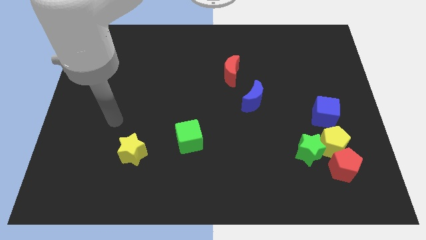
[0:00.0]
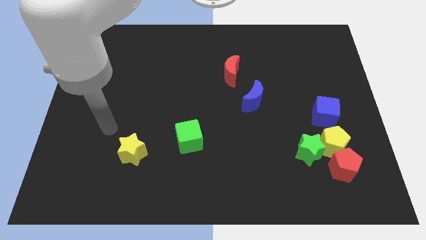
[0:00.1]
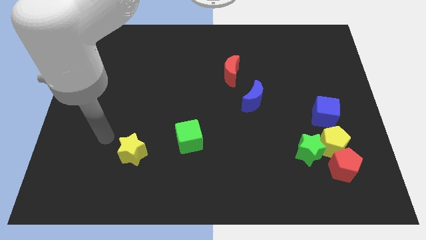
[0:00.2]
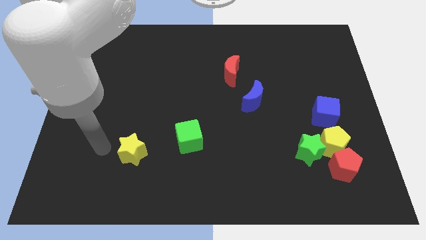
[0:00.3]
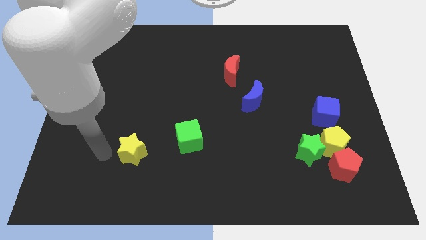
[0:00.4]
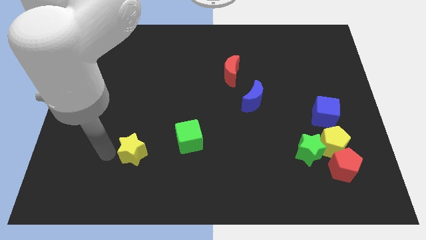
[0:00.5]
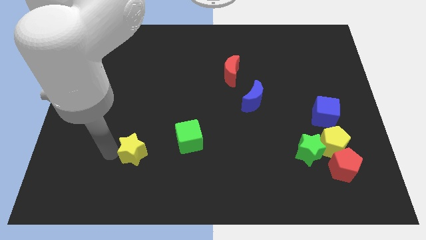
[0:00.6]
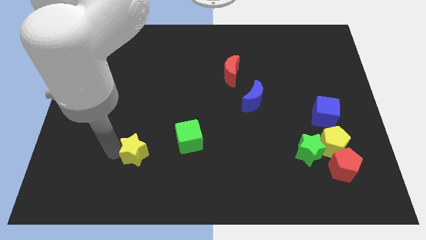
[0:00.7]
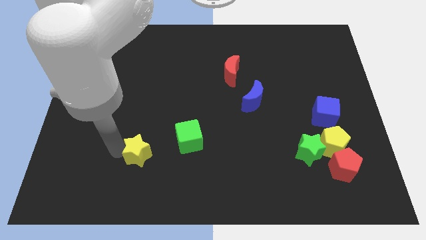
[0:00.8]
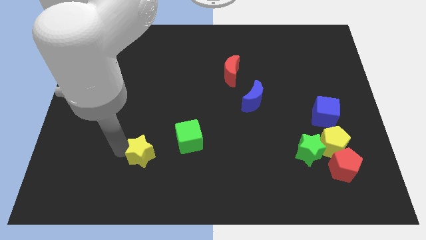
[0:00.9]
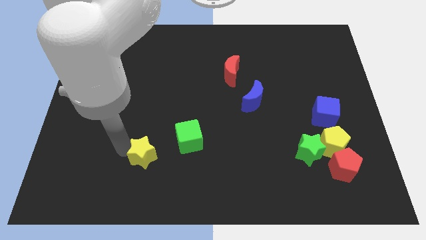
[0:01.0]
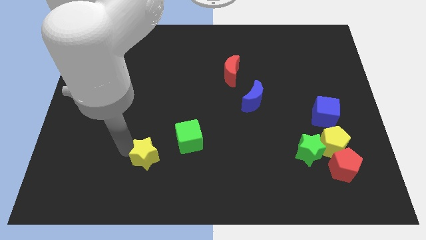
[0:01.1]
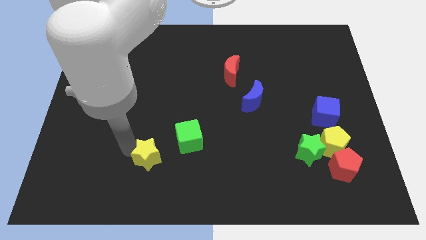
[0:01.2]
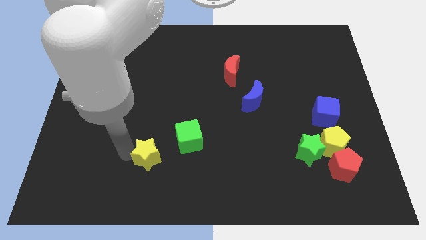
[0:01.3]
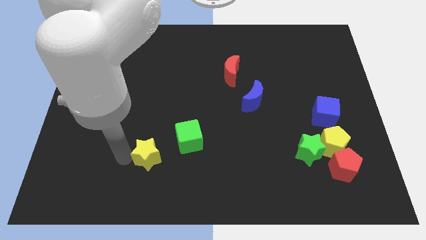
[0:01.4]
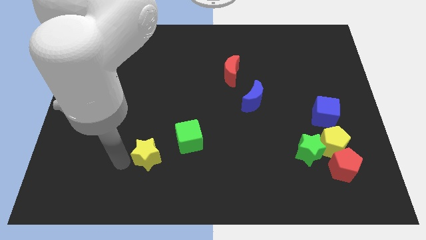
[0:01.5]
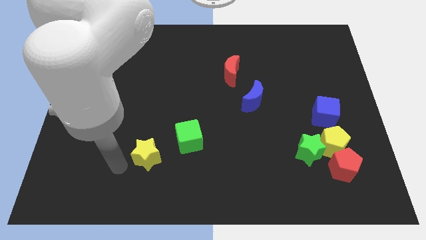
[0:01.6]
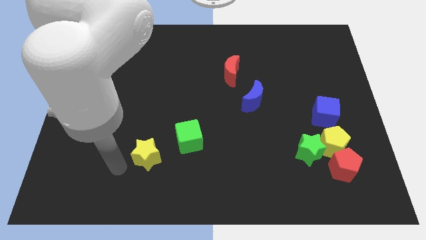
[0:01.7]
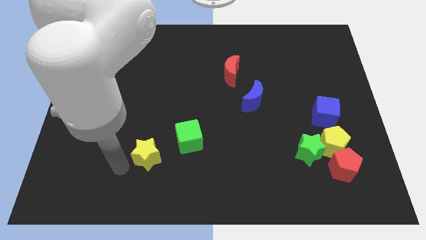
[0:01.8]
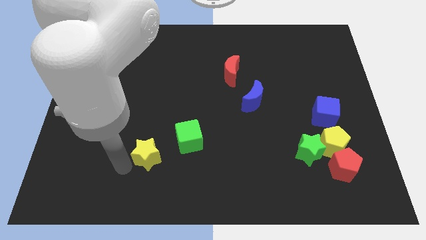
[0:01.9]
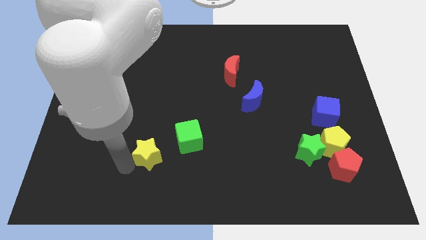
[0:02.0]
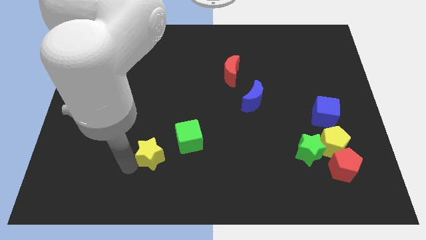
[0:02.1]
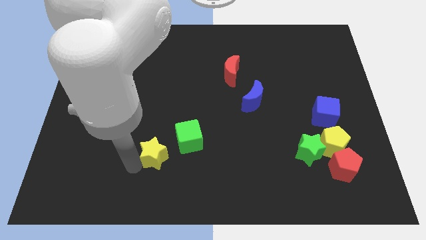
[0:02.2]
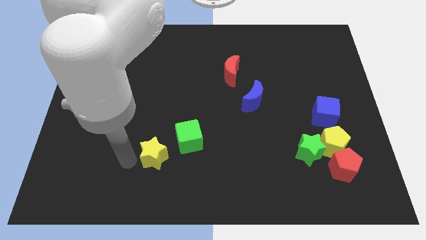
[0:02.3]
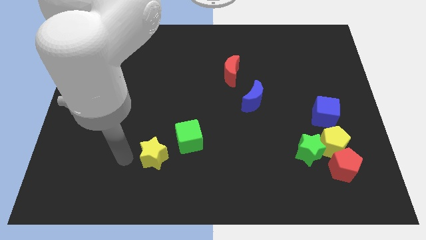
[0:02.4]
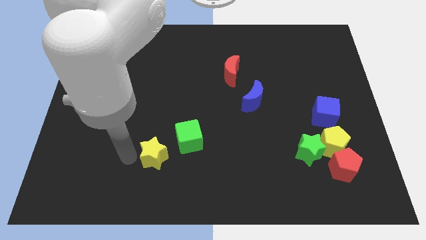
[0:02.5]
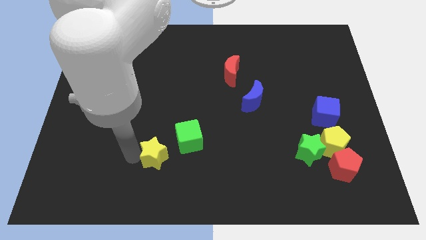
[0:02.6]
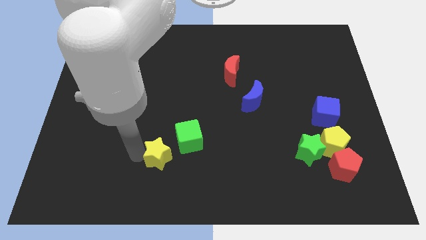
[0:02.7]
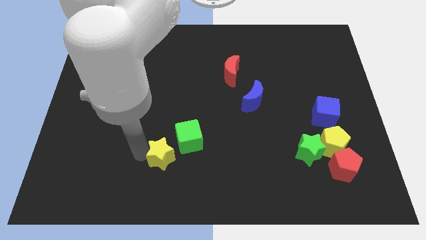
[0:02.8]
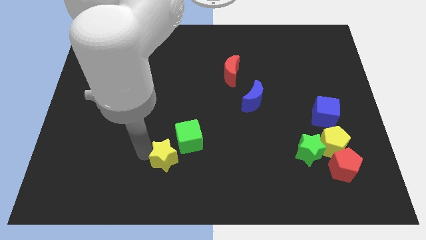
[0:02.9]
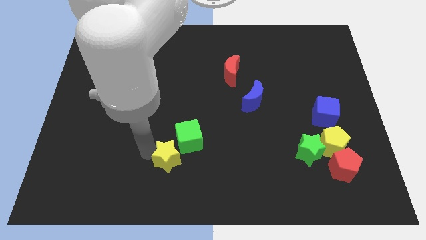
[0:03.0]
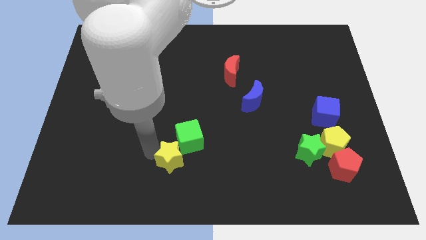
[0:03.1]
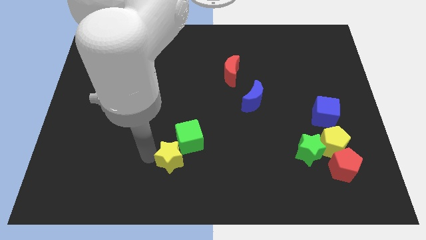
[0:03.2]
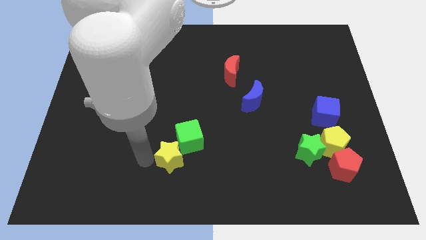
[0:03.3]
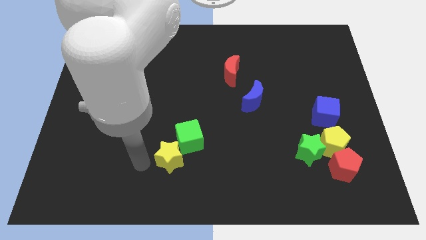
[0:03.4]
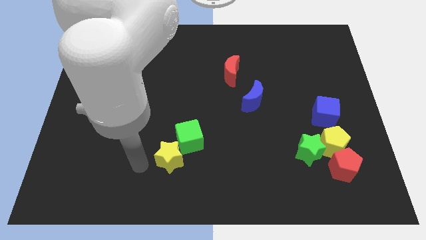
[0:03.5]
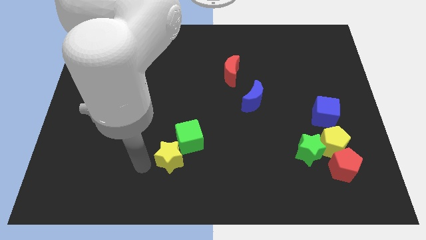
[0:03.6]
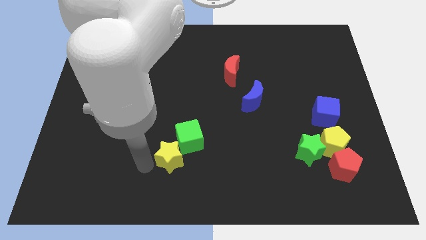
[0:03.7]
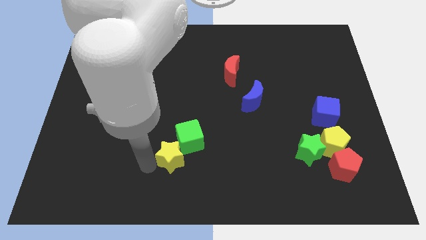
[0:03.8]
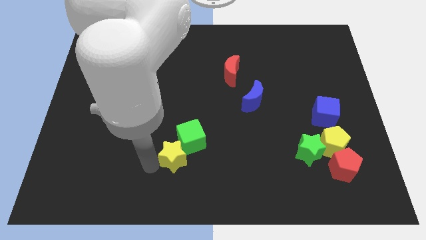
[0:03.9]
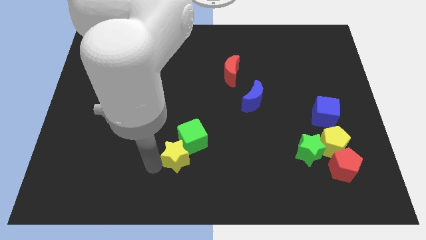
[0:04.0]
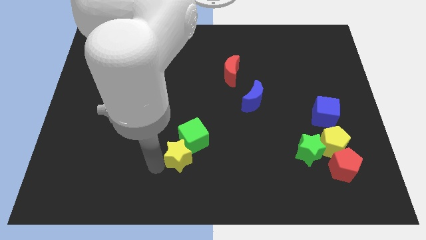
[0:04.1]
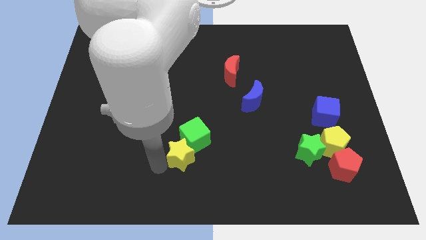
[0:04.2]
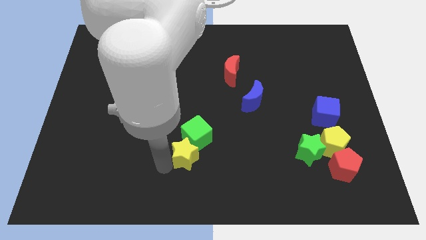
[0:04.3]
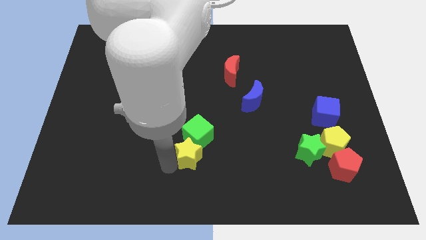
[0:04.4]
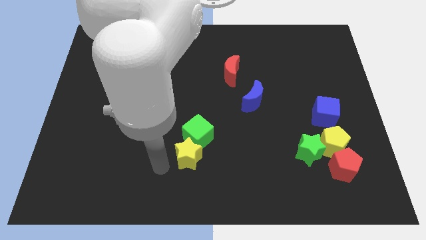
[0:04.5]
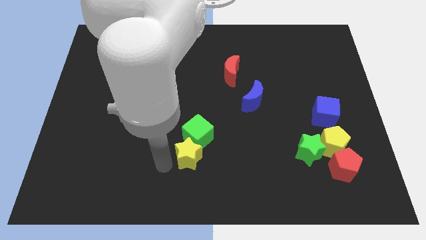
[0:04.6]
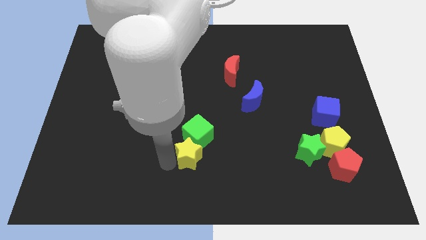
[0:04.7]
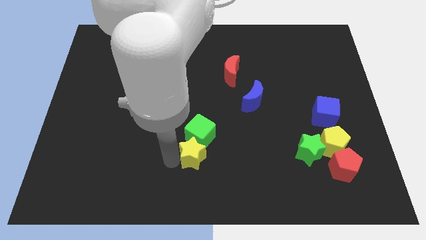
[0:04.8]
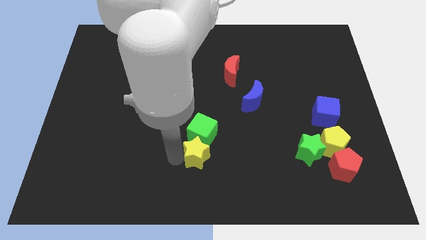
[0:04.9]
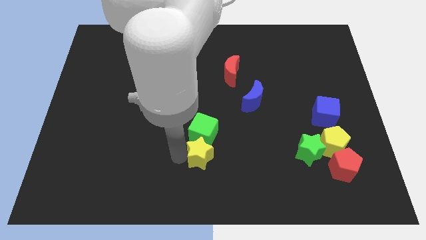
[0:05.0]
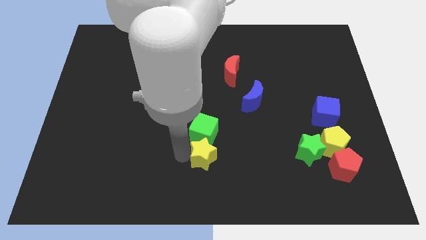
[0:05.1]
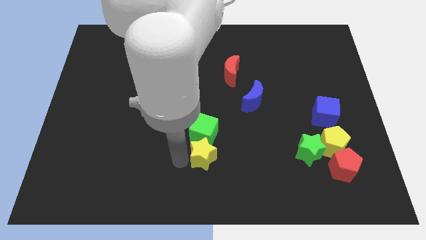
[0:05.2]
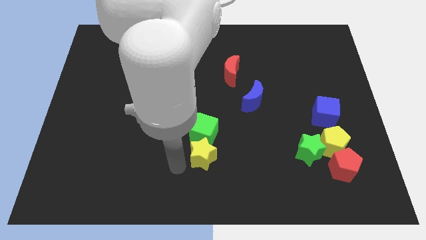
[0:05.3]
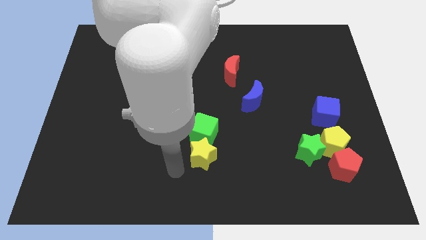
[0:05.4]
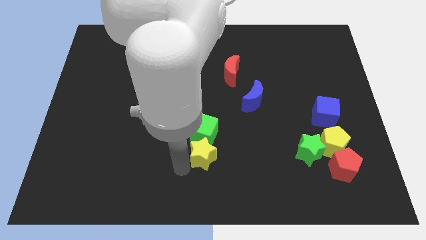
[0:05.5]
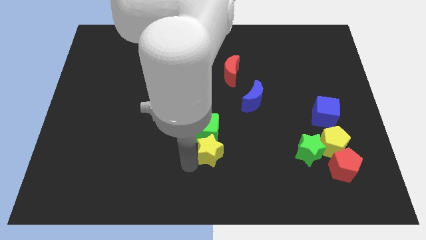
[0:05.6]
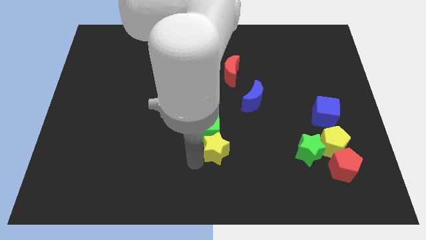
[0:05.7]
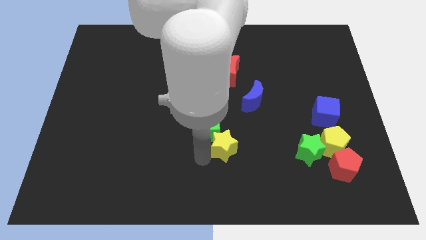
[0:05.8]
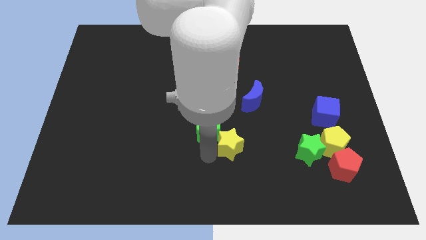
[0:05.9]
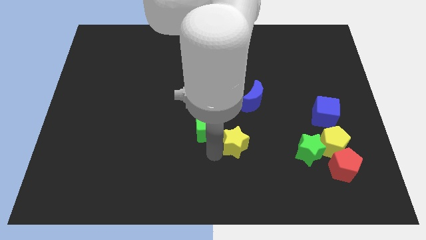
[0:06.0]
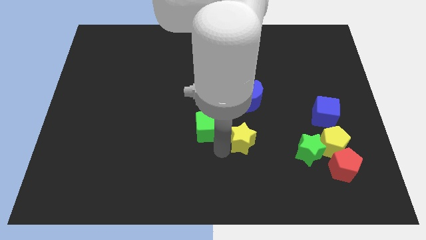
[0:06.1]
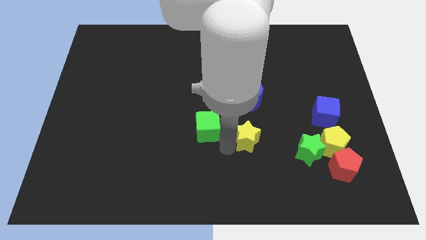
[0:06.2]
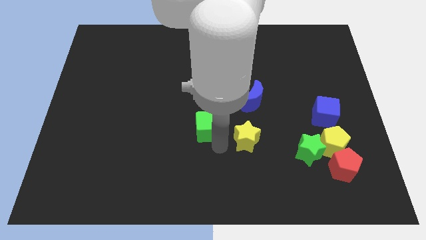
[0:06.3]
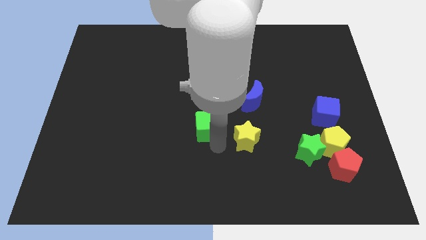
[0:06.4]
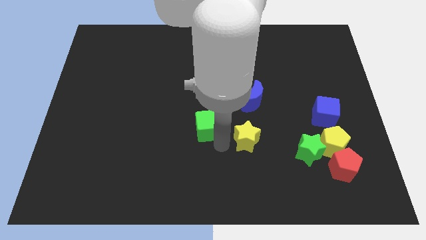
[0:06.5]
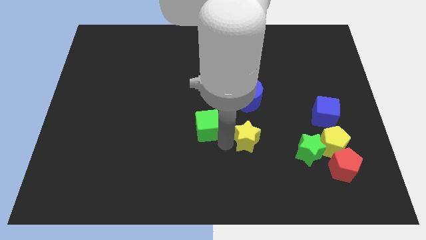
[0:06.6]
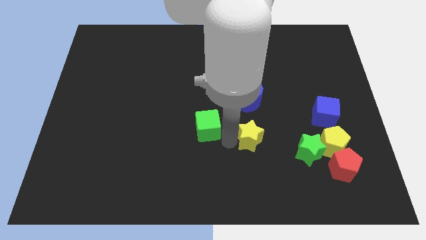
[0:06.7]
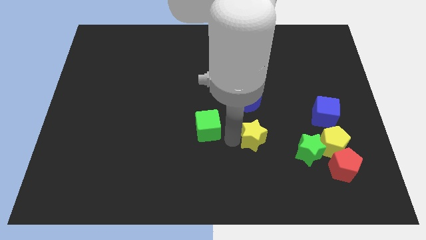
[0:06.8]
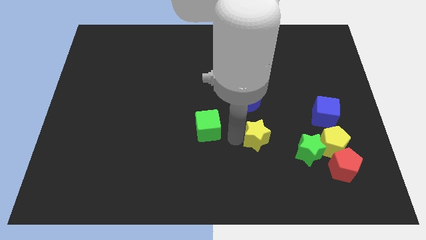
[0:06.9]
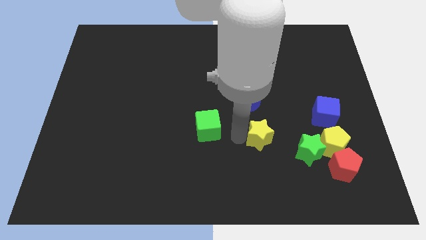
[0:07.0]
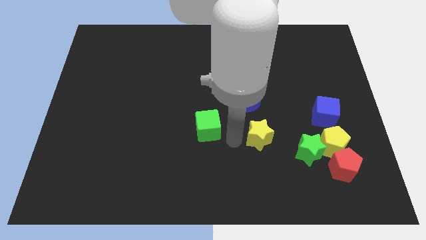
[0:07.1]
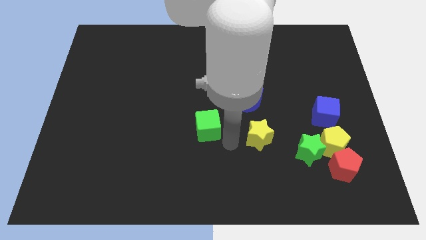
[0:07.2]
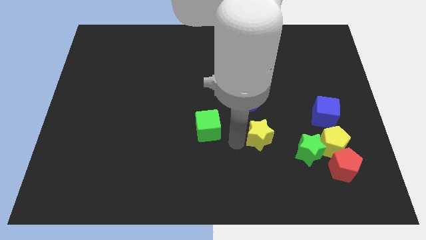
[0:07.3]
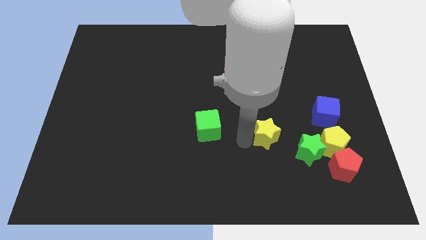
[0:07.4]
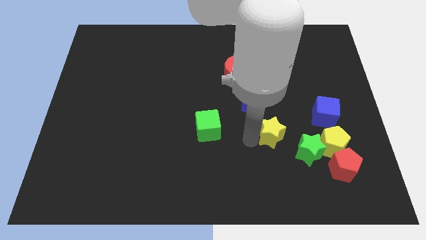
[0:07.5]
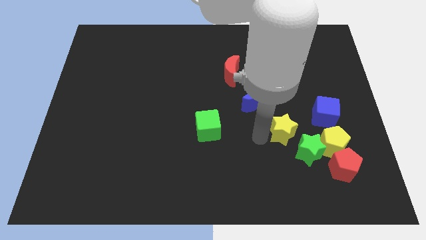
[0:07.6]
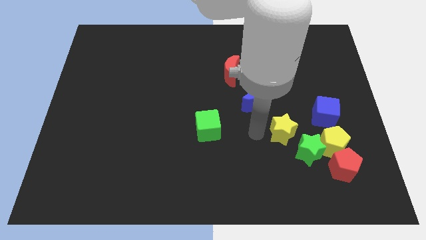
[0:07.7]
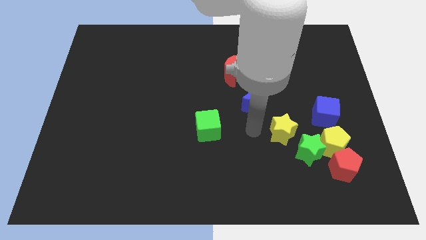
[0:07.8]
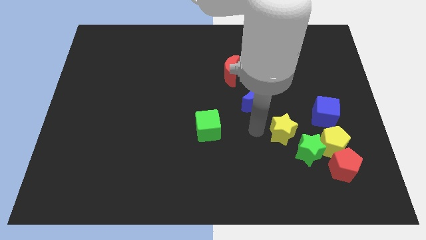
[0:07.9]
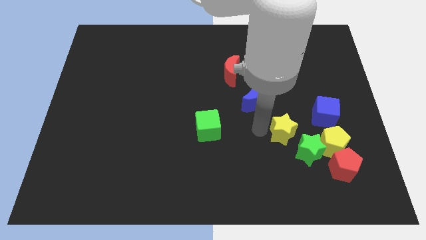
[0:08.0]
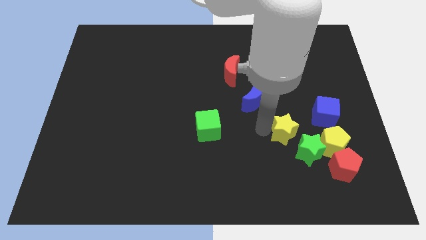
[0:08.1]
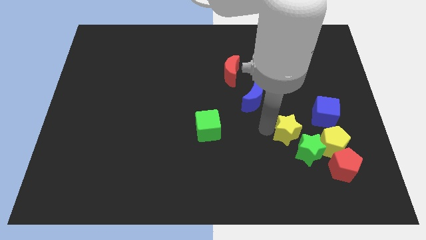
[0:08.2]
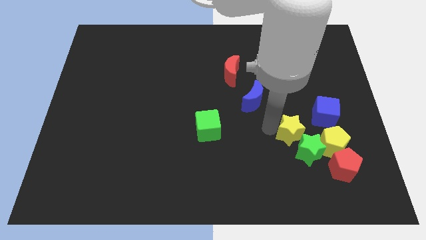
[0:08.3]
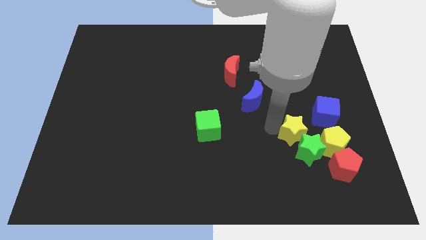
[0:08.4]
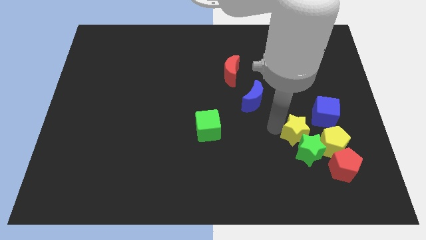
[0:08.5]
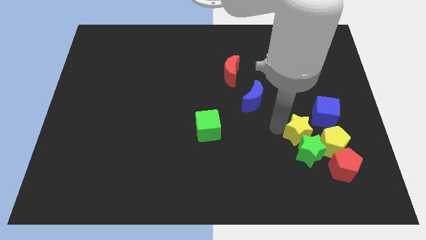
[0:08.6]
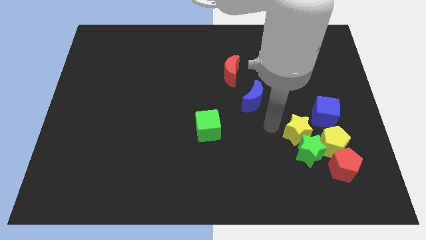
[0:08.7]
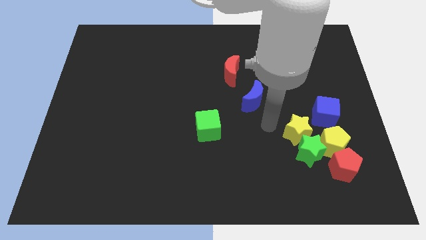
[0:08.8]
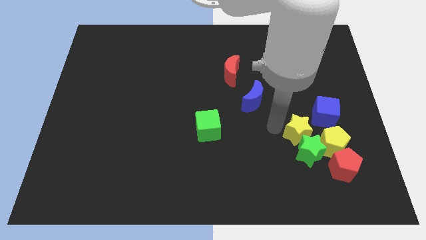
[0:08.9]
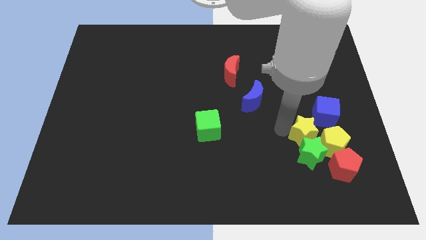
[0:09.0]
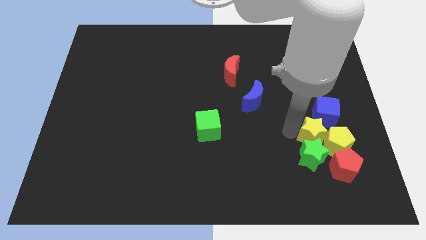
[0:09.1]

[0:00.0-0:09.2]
move the yellow star next to the yellow pentagon
